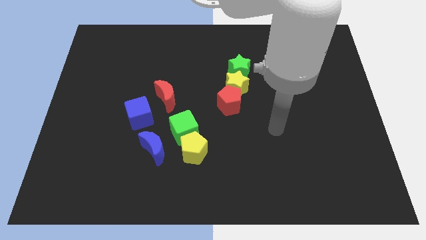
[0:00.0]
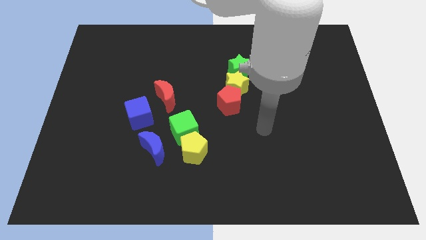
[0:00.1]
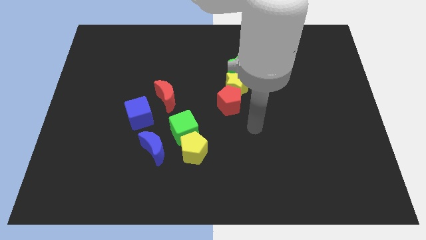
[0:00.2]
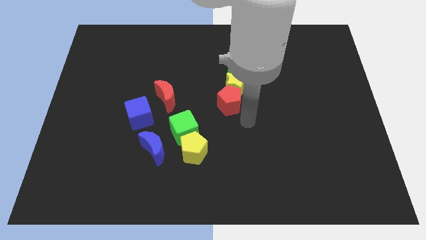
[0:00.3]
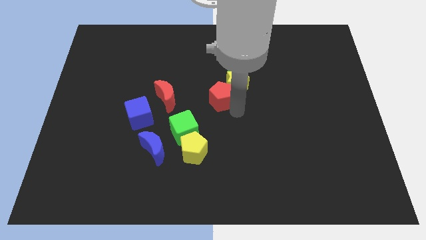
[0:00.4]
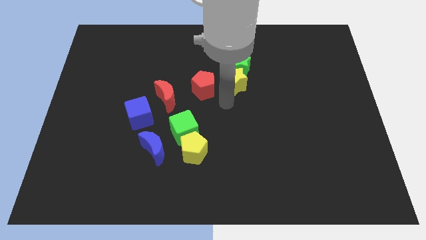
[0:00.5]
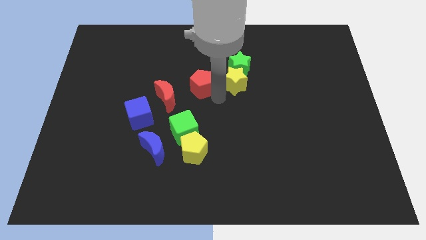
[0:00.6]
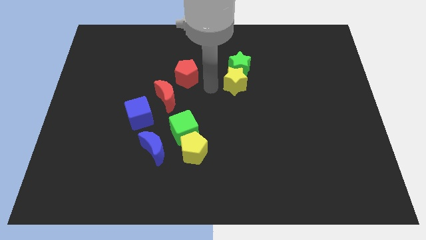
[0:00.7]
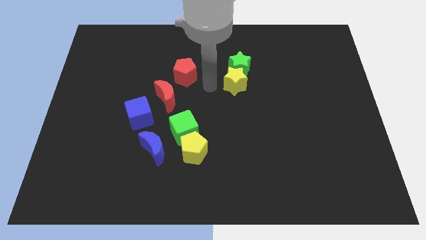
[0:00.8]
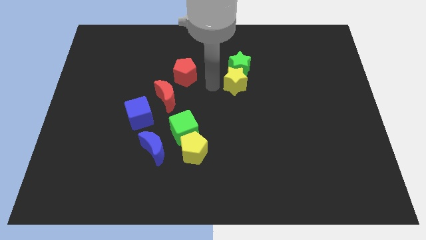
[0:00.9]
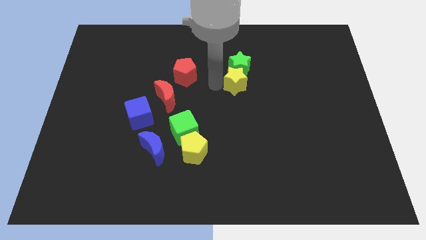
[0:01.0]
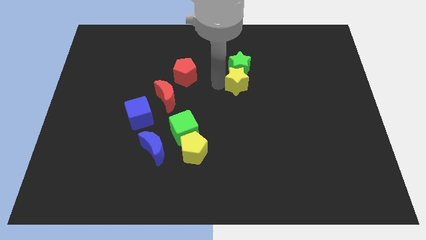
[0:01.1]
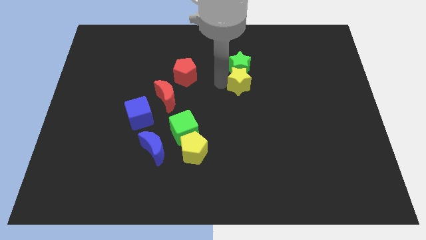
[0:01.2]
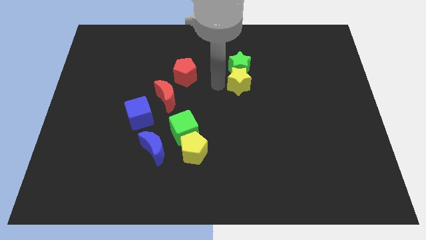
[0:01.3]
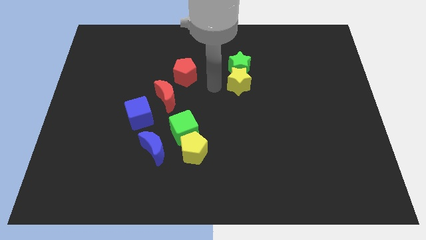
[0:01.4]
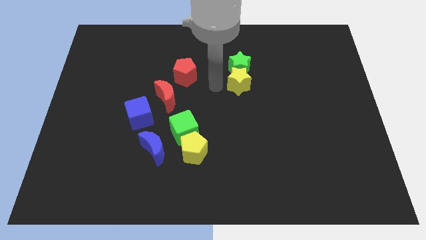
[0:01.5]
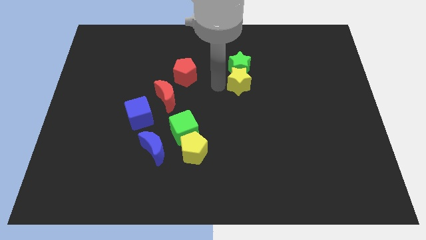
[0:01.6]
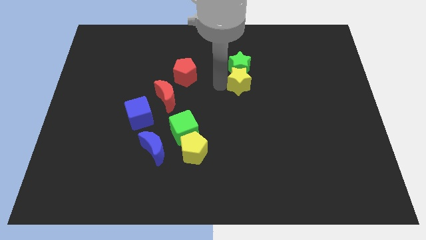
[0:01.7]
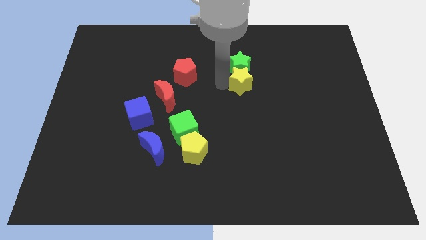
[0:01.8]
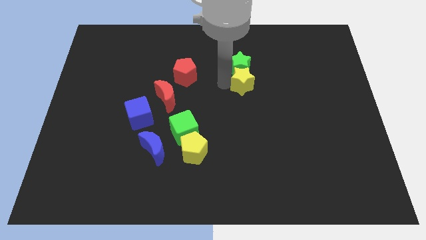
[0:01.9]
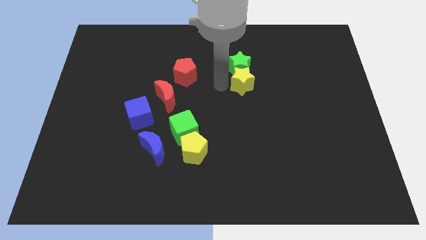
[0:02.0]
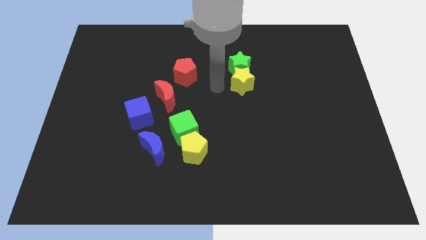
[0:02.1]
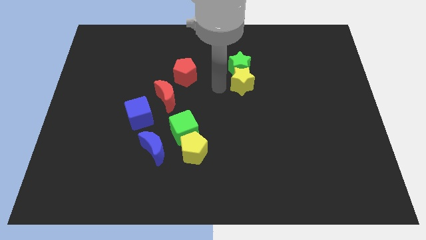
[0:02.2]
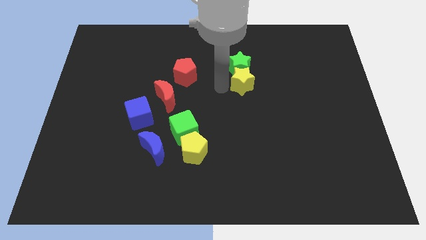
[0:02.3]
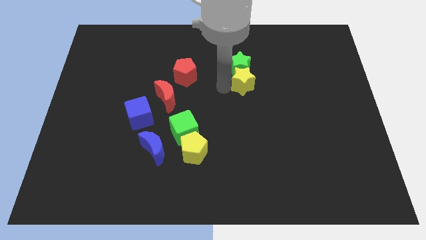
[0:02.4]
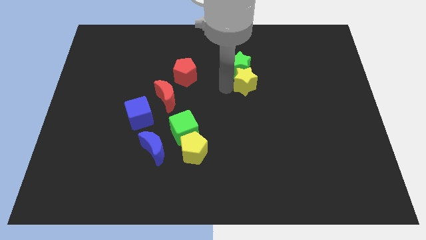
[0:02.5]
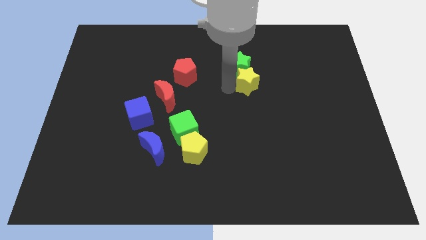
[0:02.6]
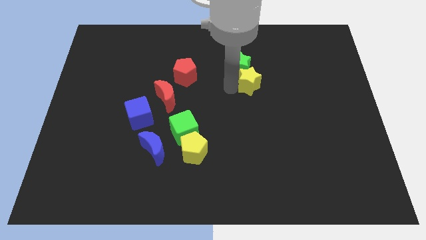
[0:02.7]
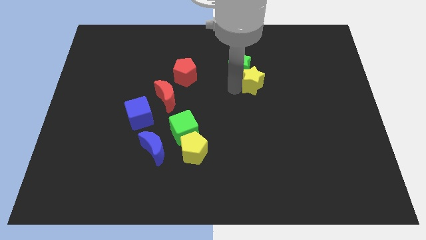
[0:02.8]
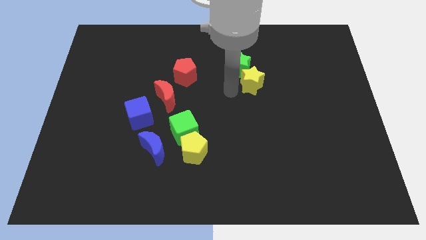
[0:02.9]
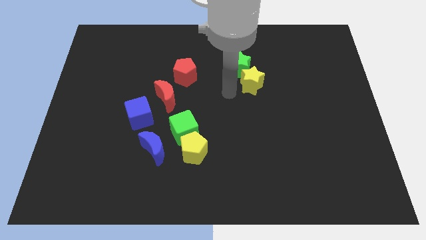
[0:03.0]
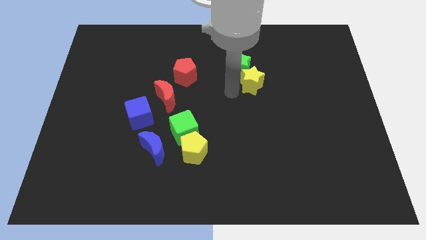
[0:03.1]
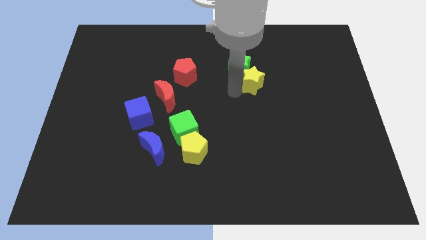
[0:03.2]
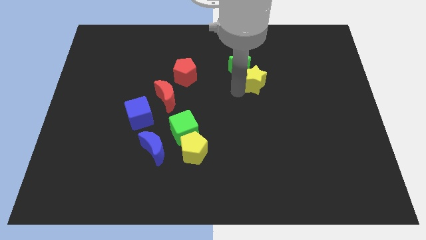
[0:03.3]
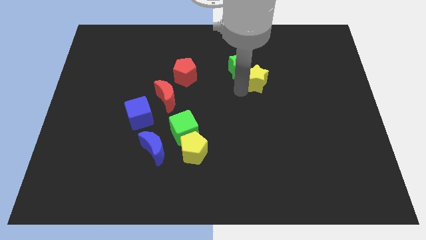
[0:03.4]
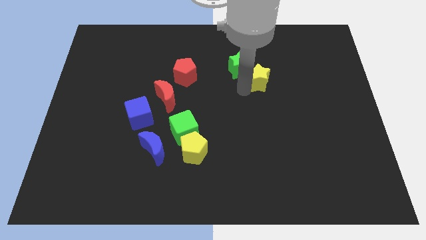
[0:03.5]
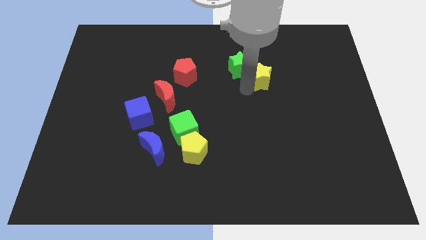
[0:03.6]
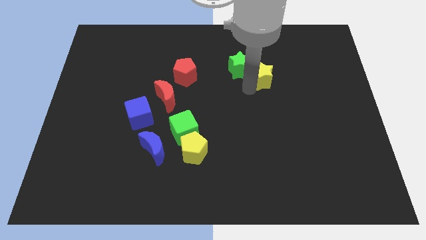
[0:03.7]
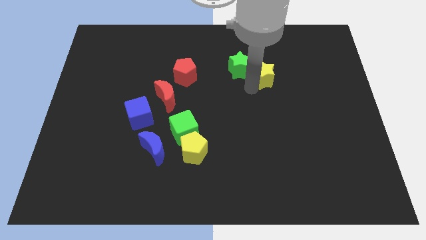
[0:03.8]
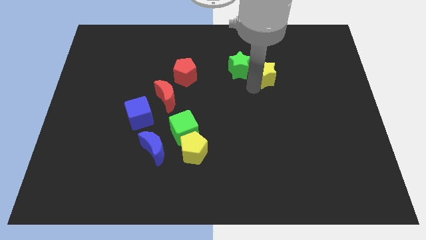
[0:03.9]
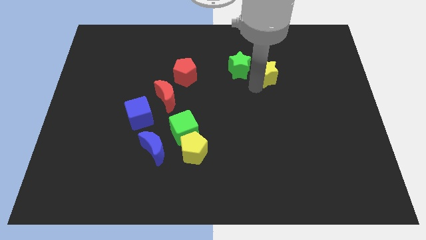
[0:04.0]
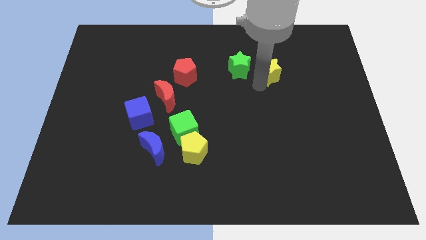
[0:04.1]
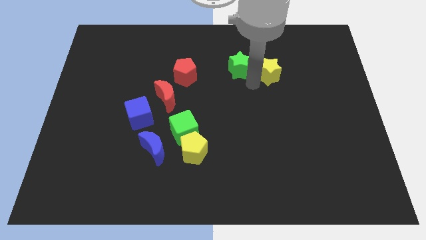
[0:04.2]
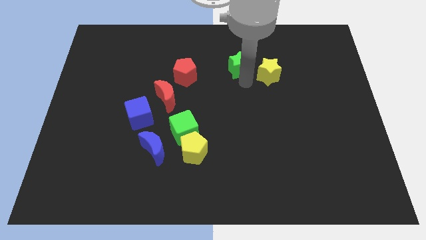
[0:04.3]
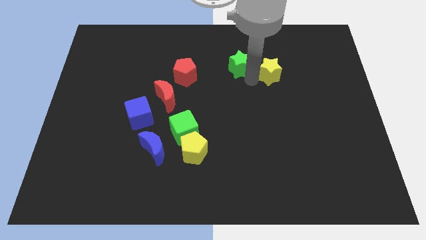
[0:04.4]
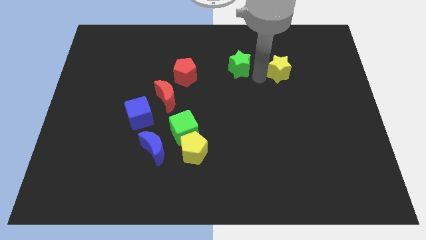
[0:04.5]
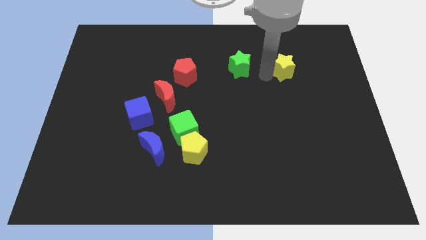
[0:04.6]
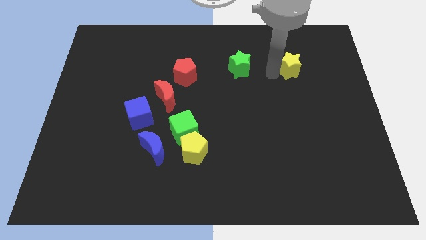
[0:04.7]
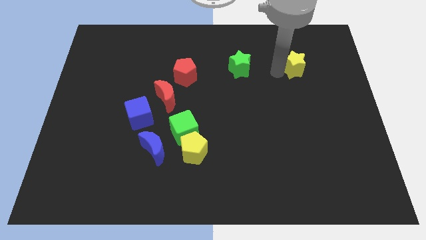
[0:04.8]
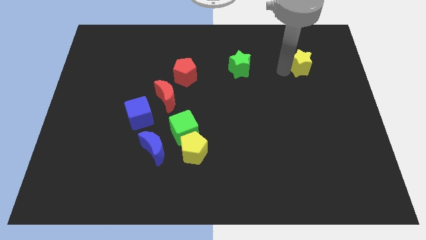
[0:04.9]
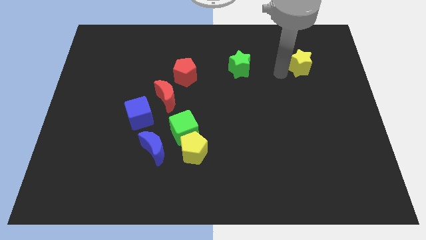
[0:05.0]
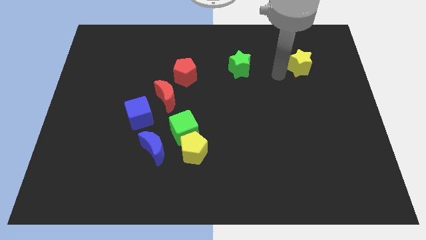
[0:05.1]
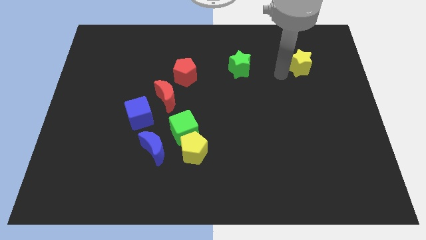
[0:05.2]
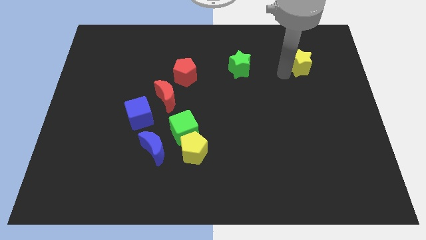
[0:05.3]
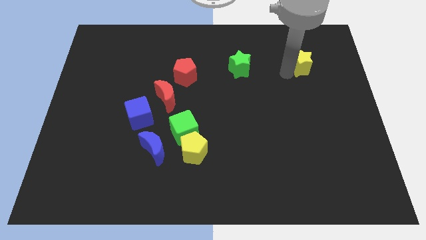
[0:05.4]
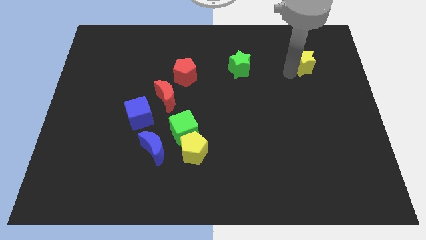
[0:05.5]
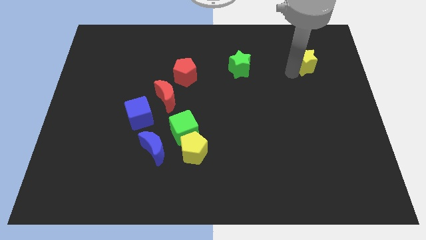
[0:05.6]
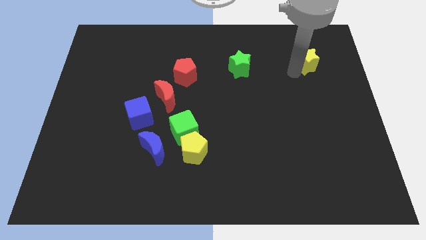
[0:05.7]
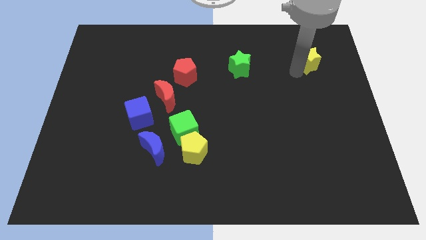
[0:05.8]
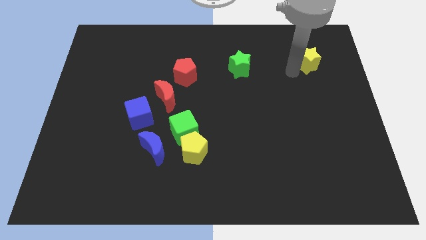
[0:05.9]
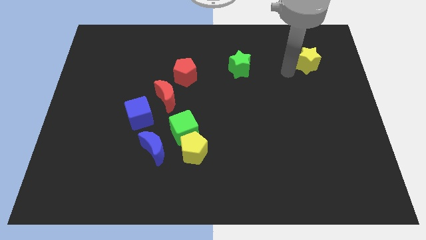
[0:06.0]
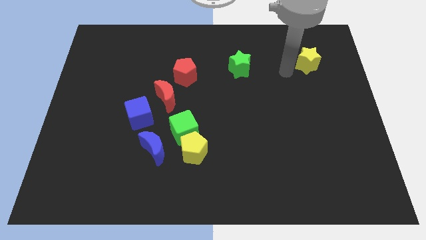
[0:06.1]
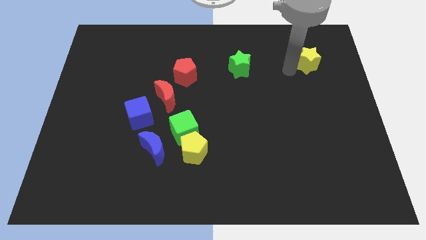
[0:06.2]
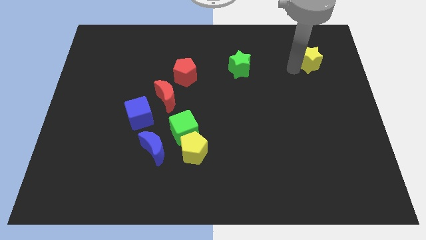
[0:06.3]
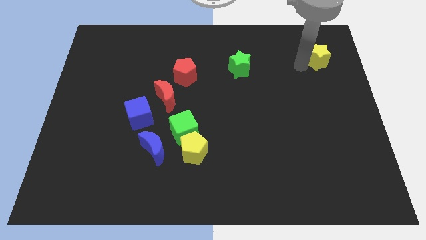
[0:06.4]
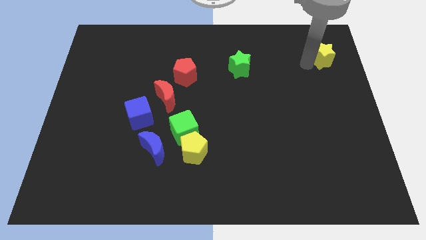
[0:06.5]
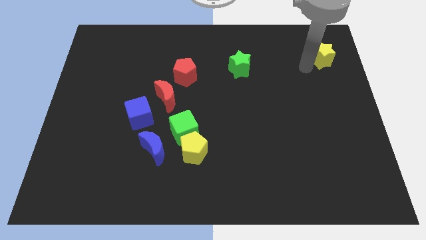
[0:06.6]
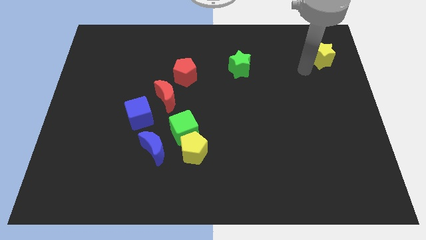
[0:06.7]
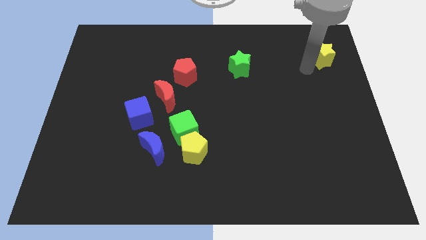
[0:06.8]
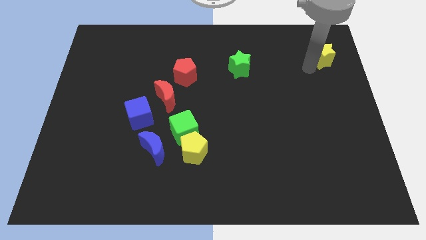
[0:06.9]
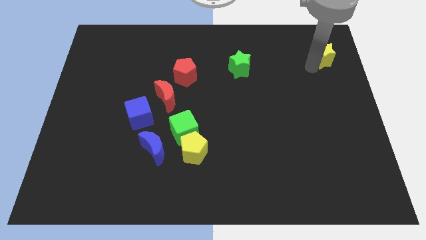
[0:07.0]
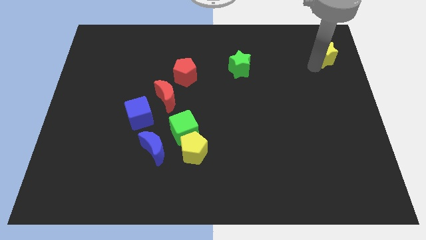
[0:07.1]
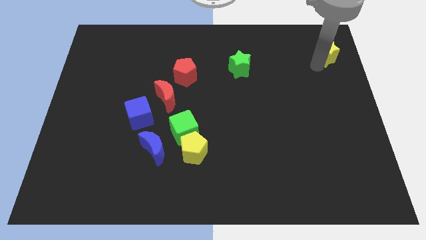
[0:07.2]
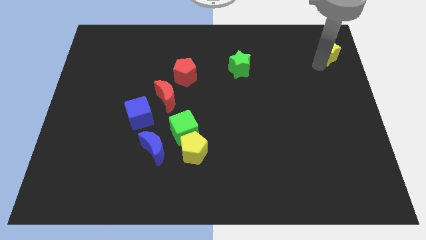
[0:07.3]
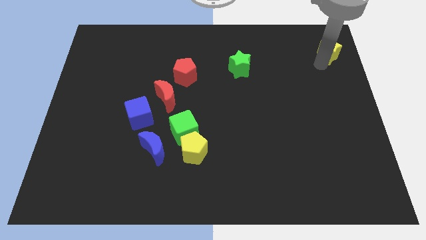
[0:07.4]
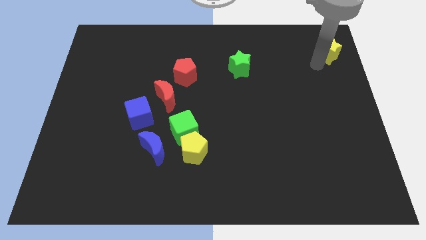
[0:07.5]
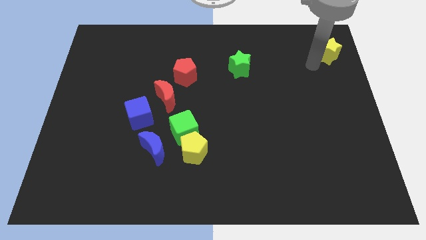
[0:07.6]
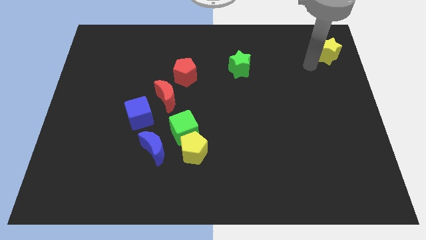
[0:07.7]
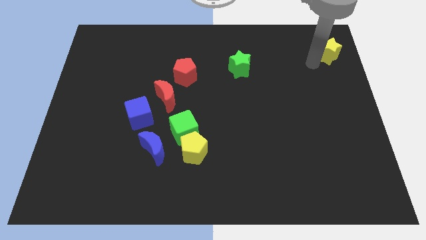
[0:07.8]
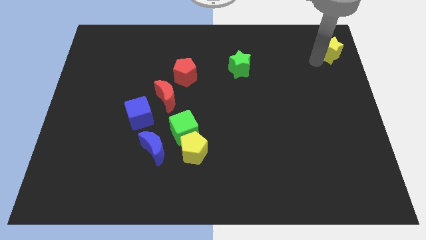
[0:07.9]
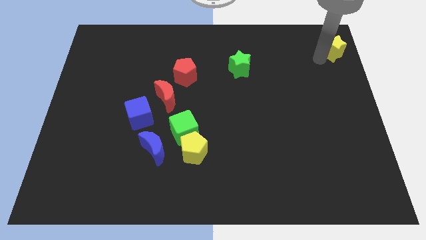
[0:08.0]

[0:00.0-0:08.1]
move the yellow star to the top right
